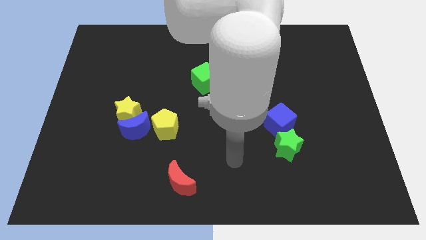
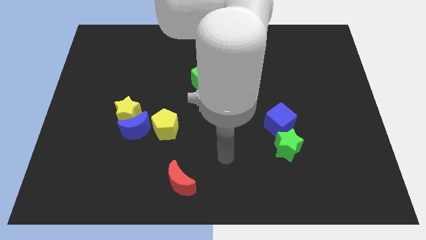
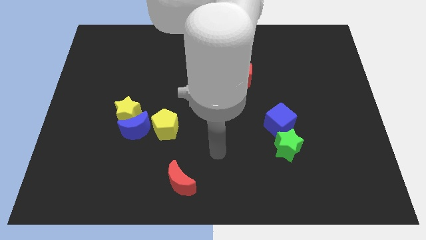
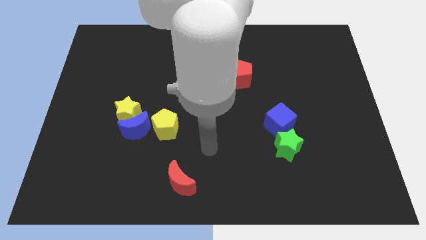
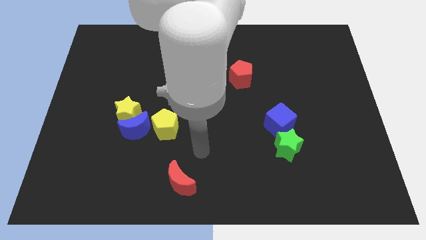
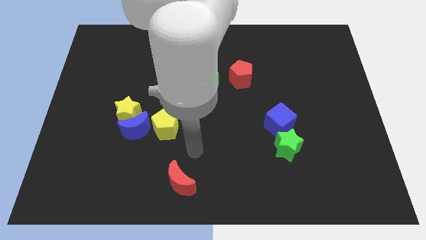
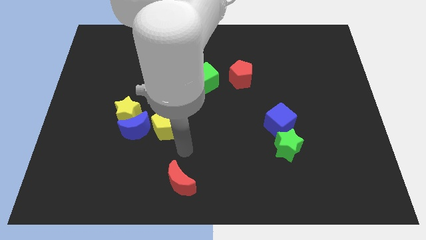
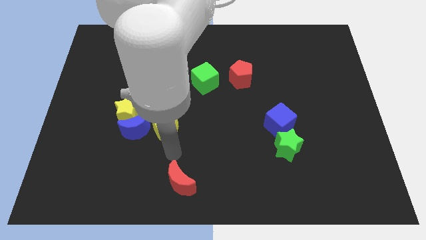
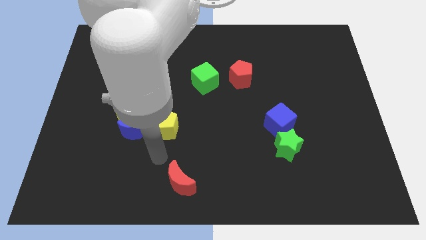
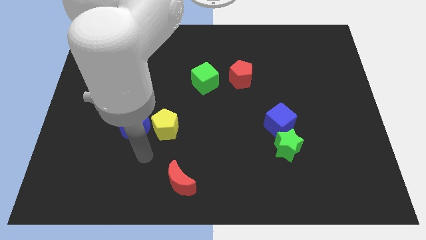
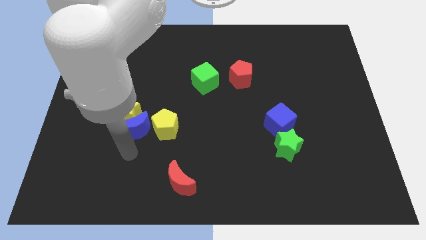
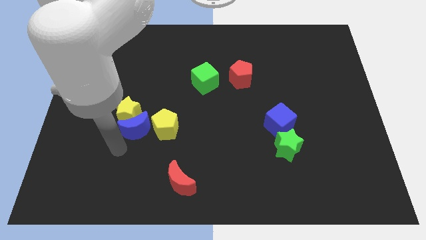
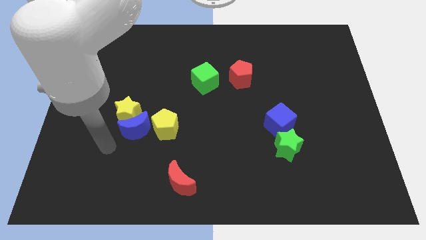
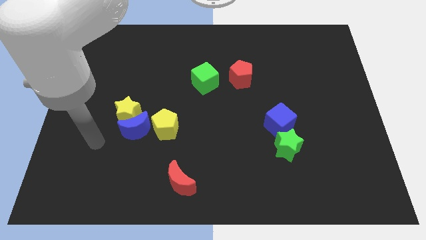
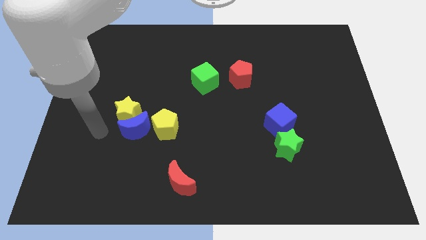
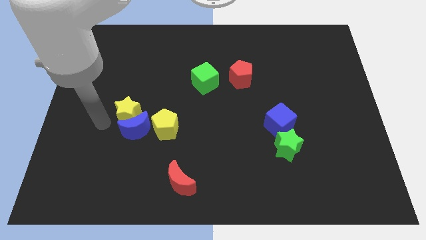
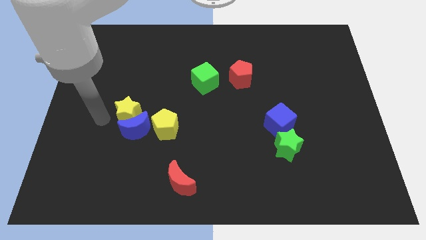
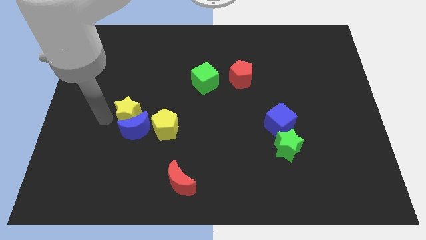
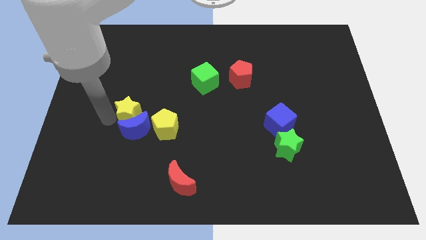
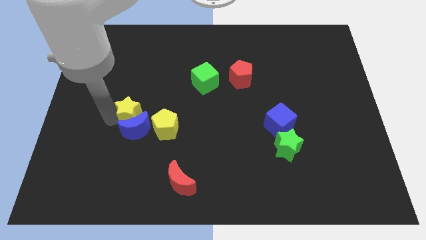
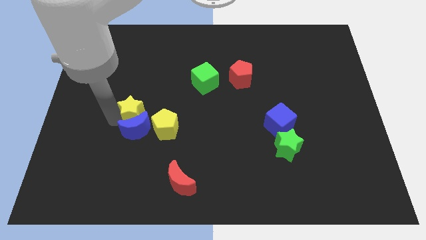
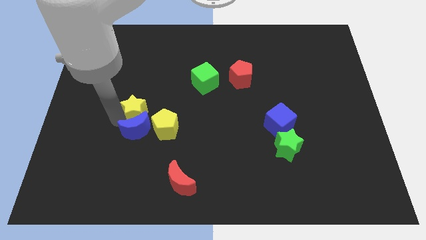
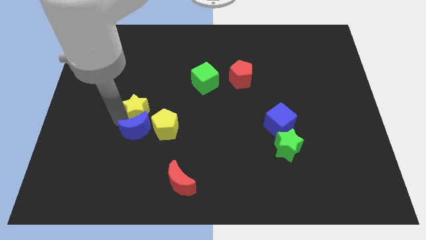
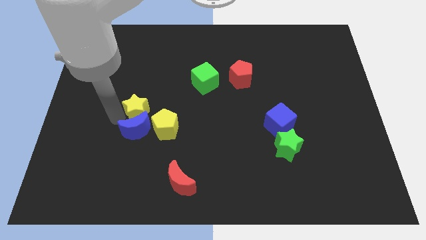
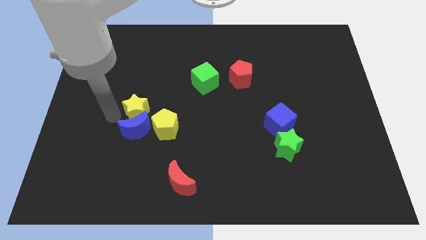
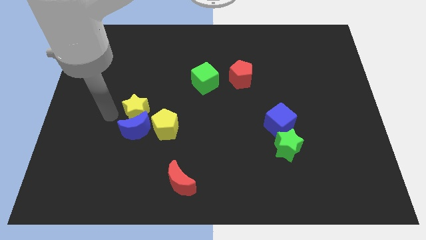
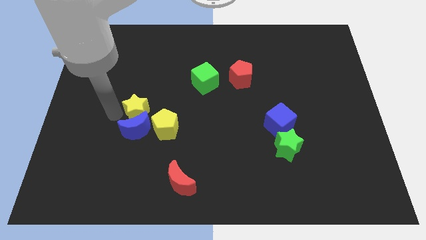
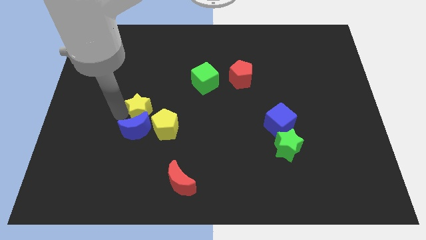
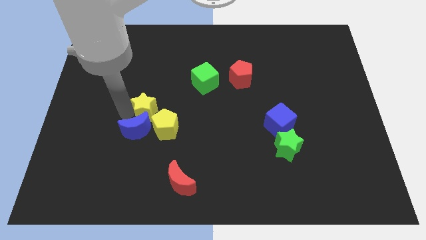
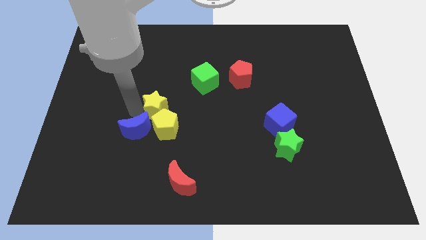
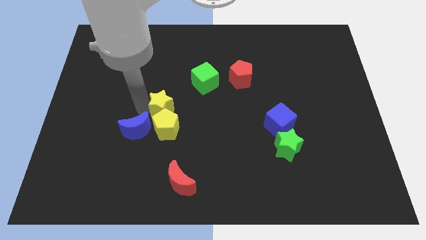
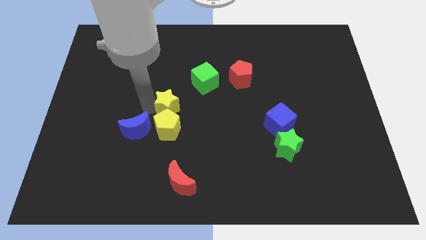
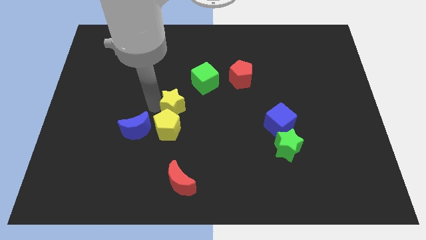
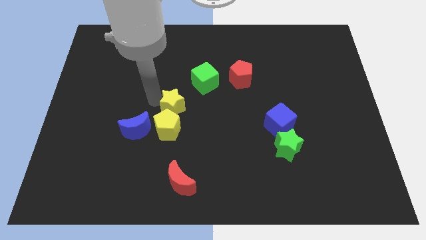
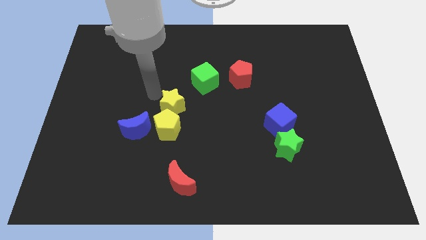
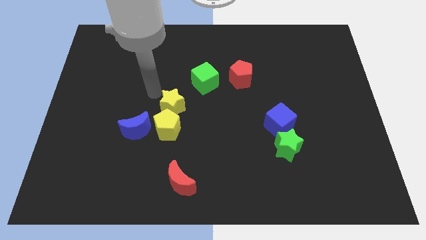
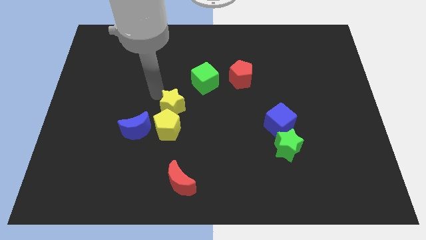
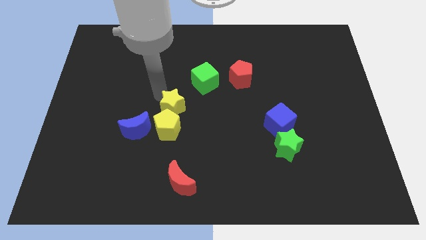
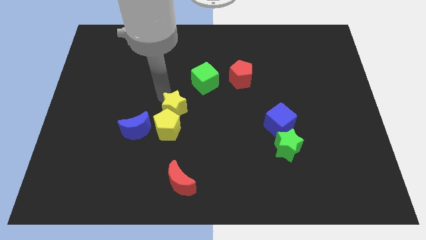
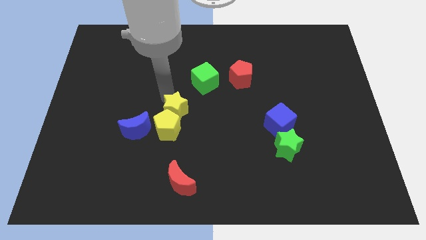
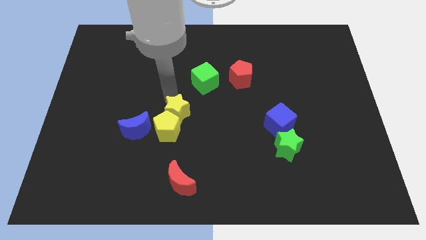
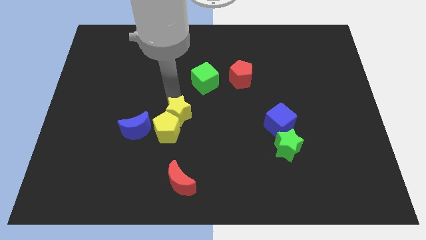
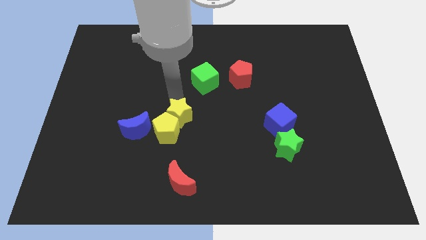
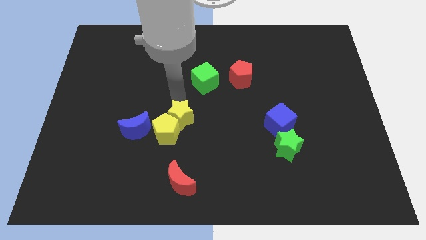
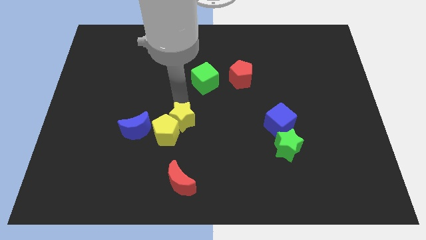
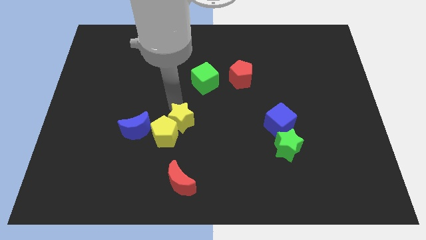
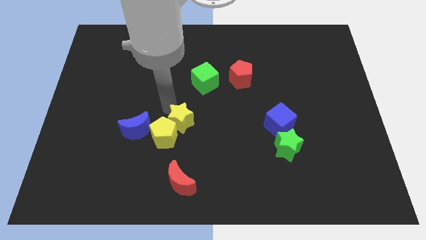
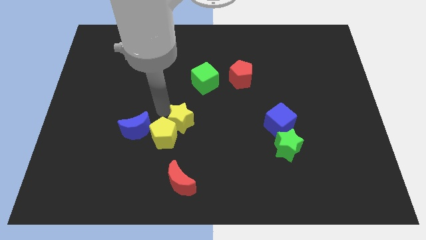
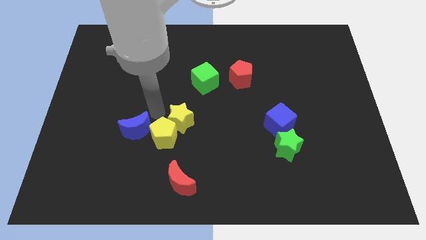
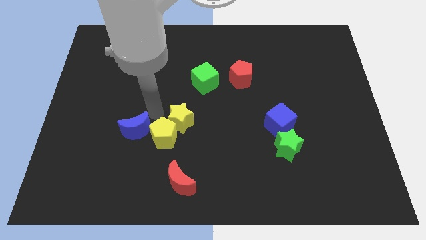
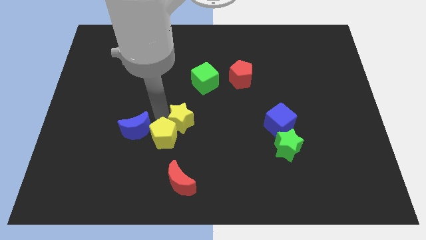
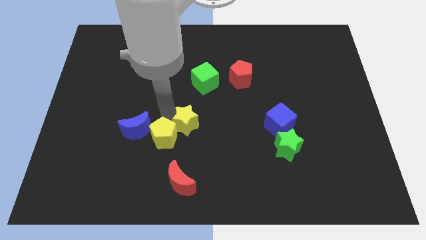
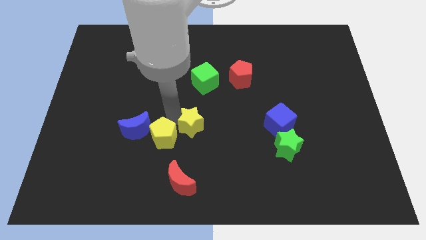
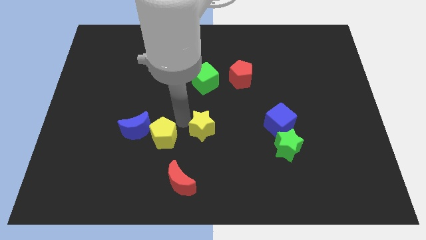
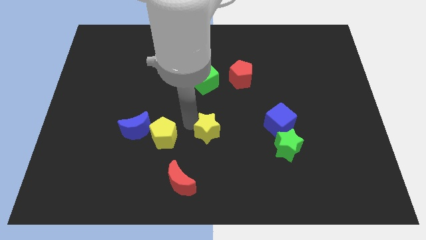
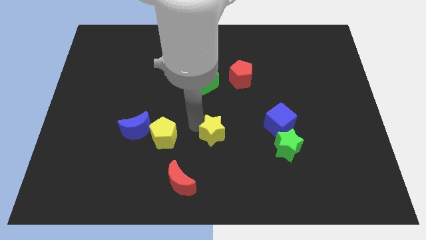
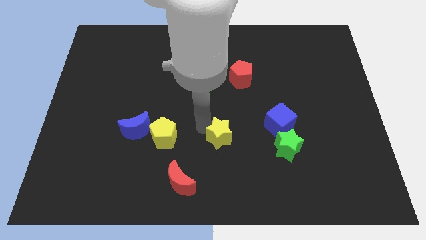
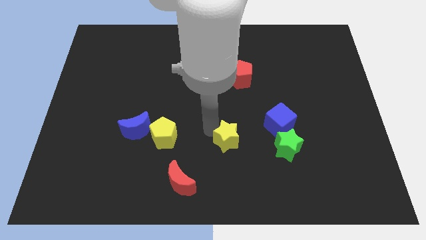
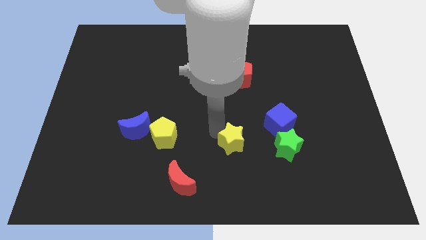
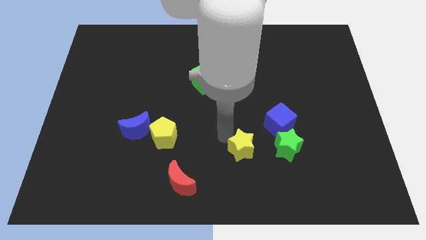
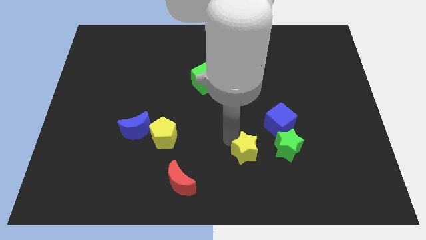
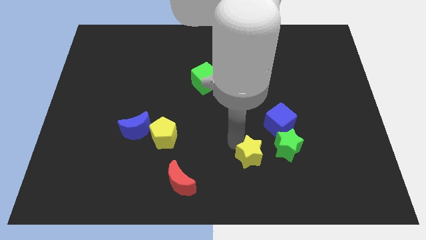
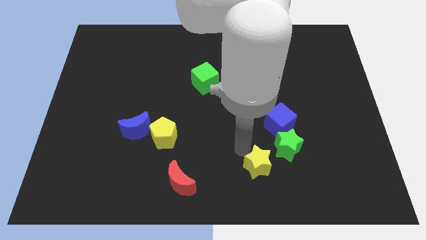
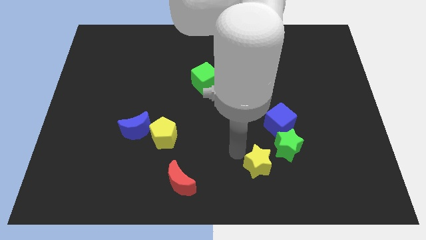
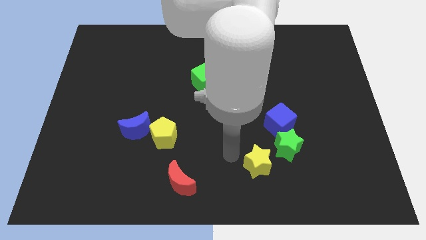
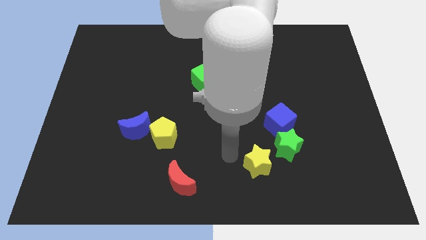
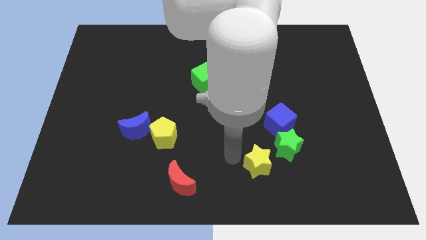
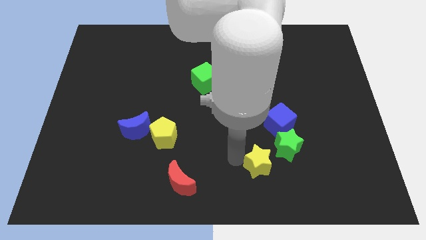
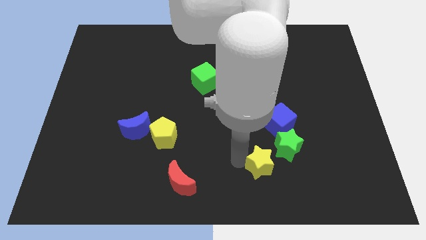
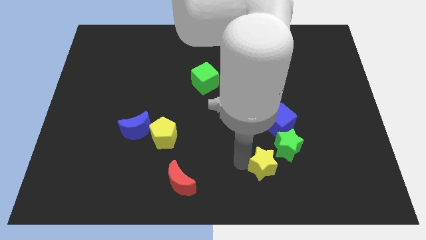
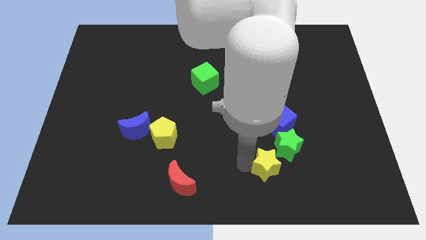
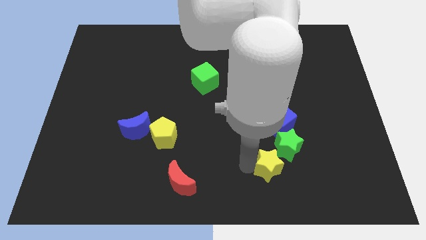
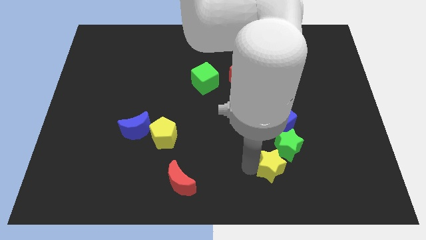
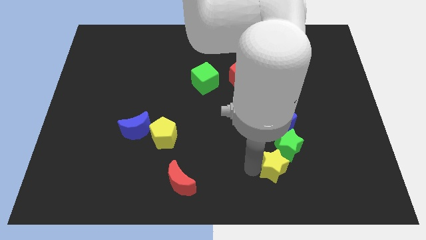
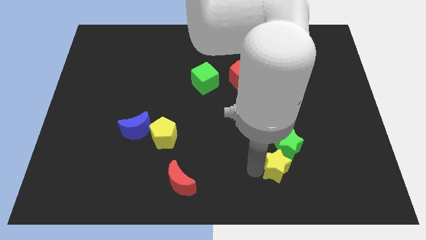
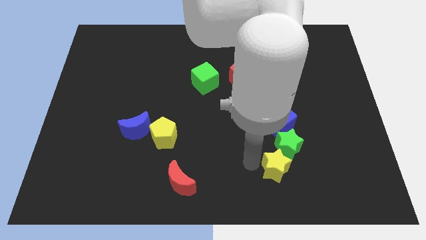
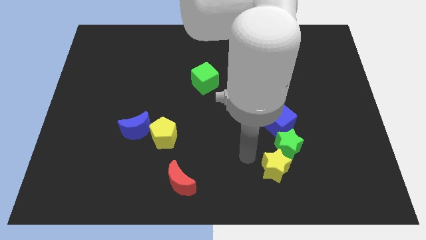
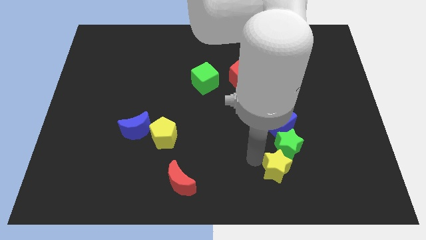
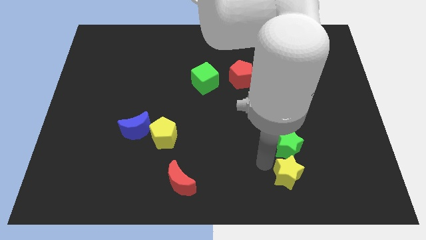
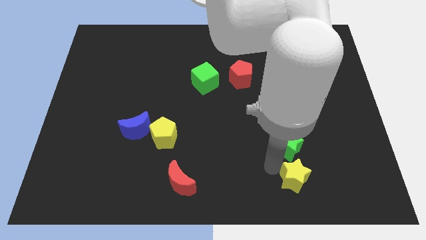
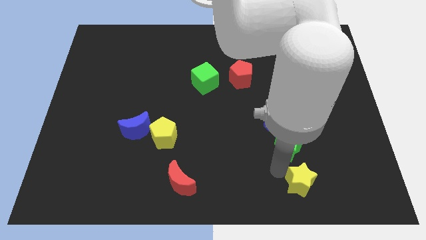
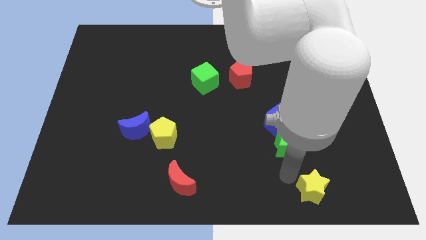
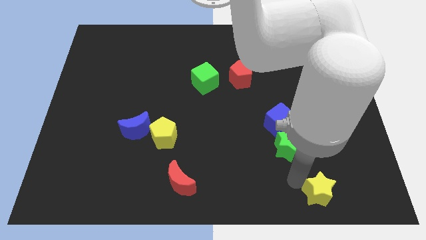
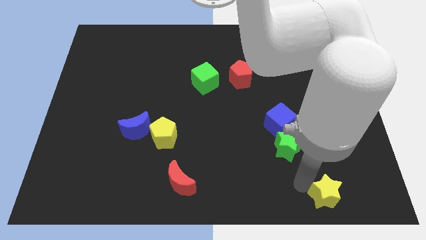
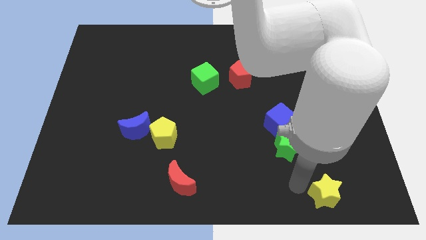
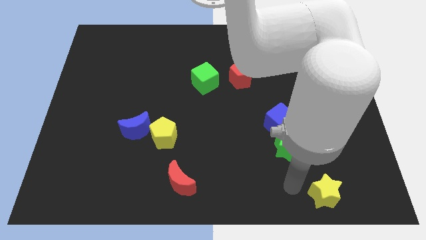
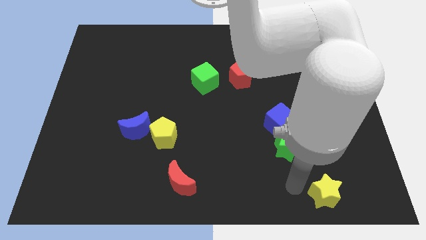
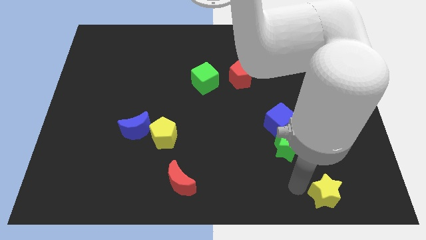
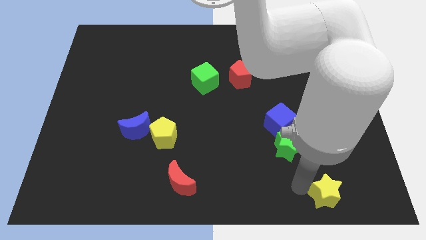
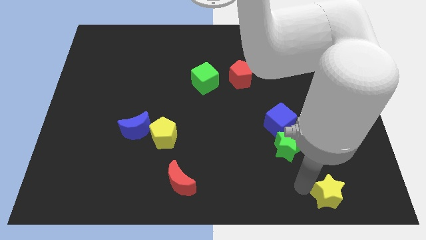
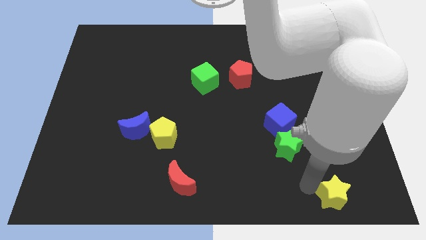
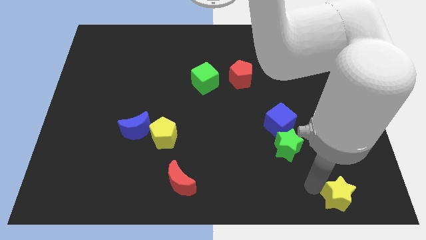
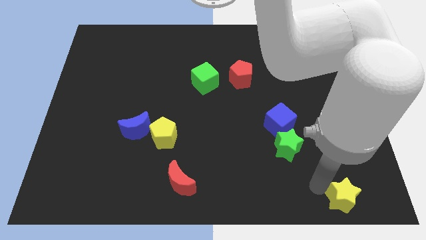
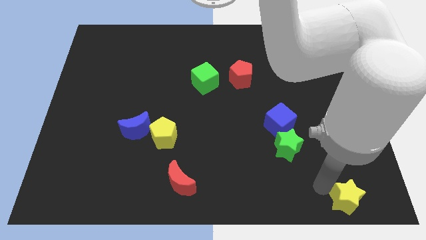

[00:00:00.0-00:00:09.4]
push the yellow star to the lower right corner
